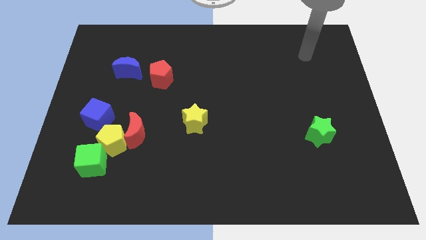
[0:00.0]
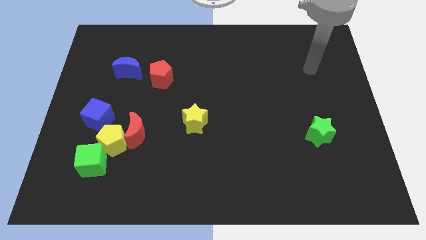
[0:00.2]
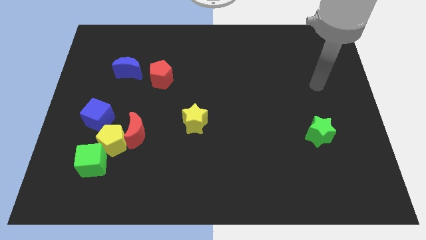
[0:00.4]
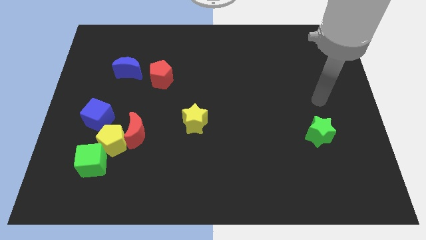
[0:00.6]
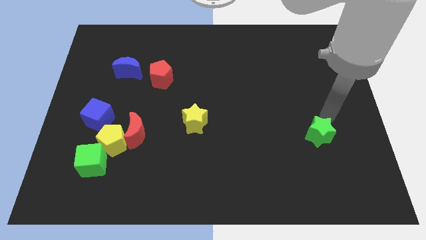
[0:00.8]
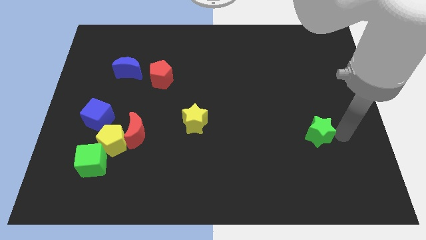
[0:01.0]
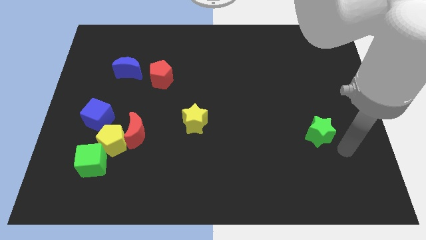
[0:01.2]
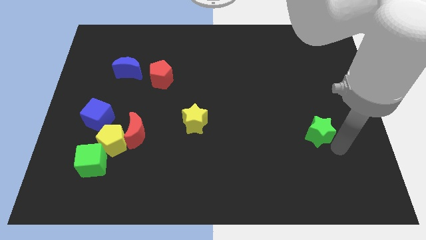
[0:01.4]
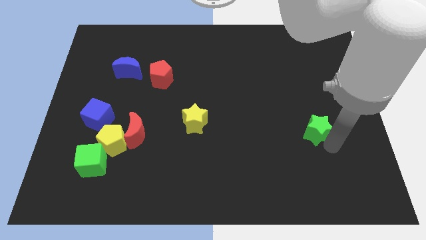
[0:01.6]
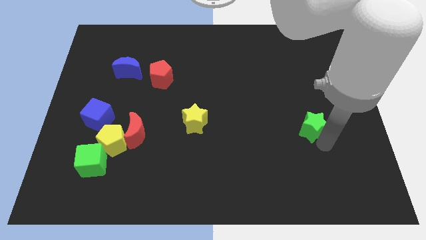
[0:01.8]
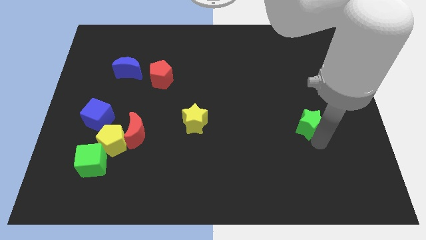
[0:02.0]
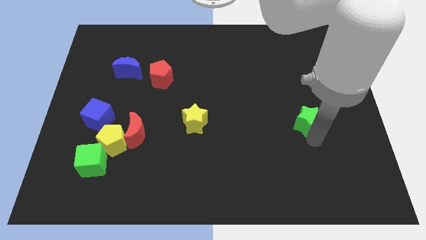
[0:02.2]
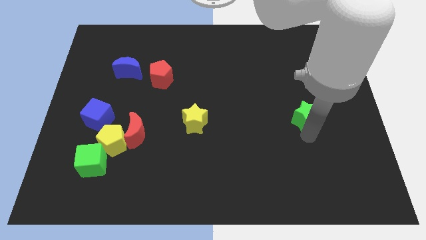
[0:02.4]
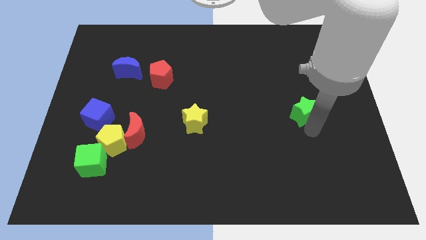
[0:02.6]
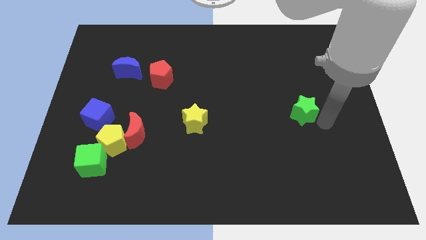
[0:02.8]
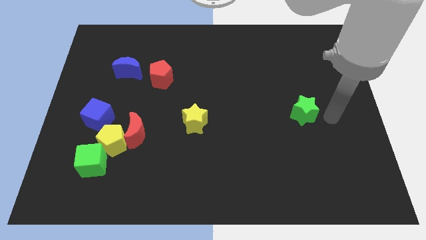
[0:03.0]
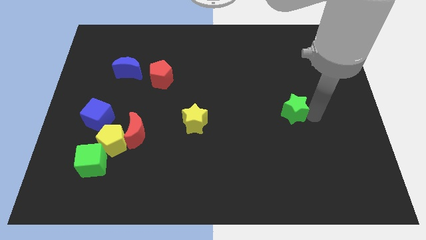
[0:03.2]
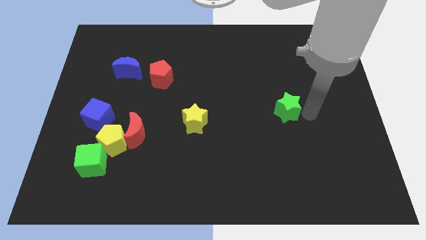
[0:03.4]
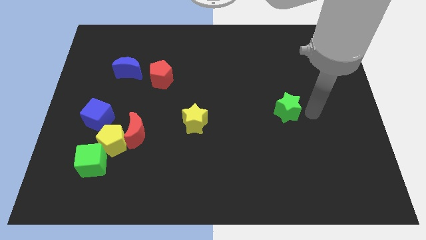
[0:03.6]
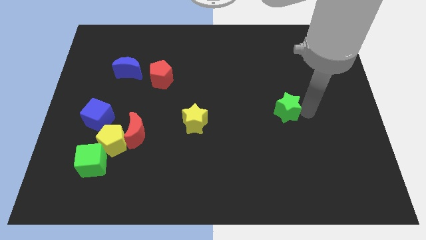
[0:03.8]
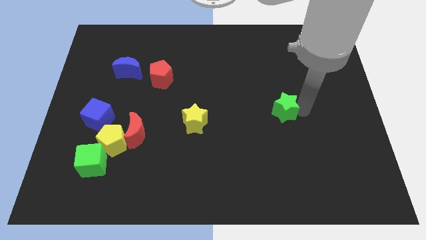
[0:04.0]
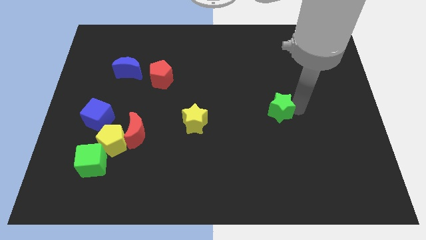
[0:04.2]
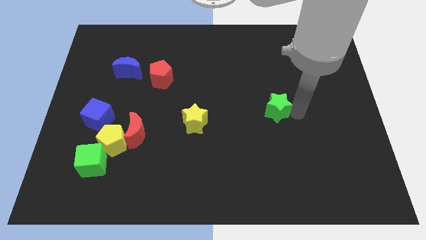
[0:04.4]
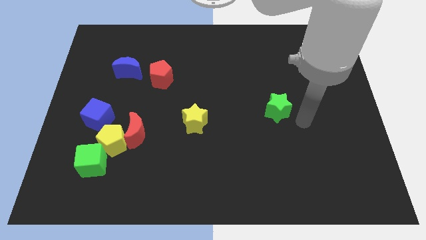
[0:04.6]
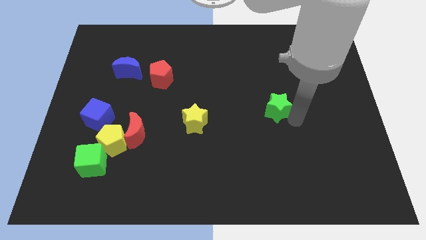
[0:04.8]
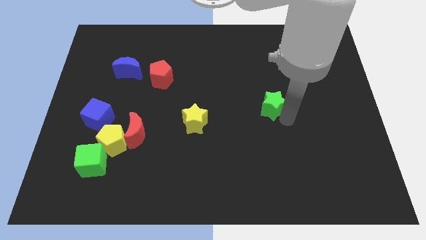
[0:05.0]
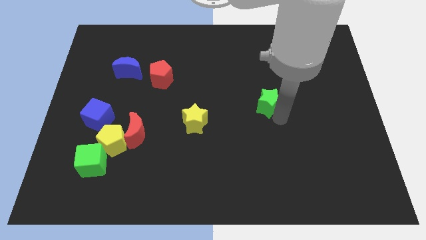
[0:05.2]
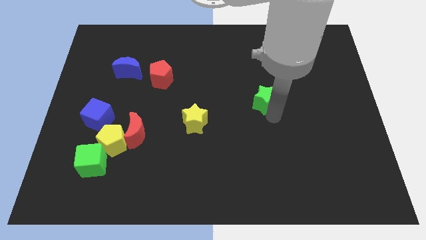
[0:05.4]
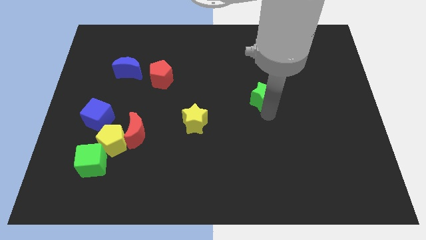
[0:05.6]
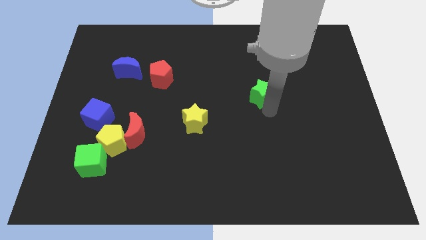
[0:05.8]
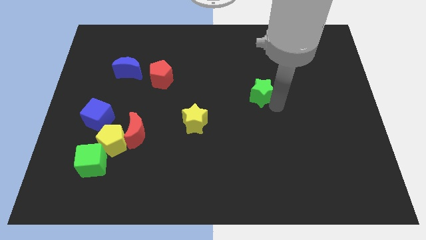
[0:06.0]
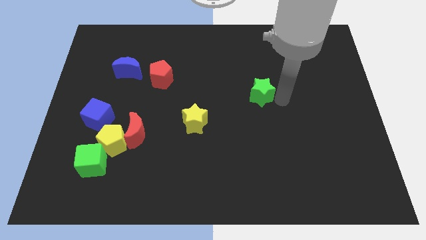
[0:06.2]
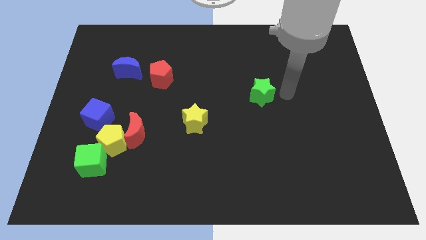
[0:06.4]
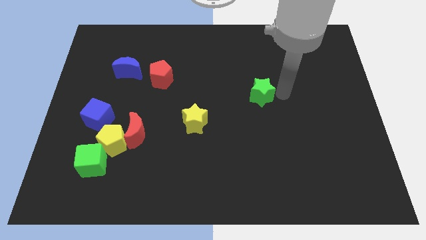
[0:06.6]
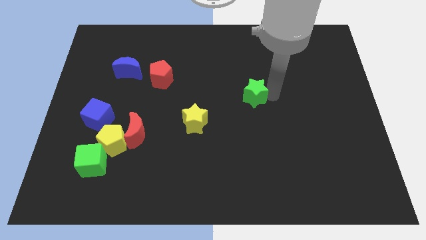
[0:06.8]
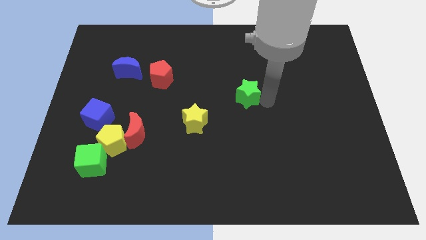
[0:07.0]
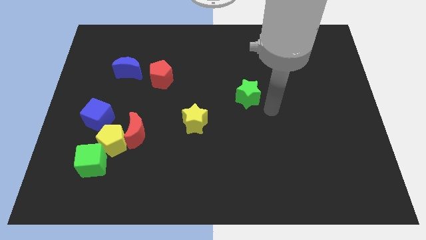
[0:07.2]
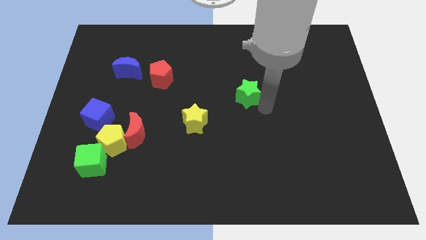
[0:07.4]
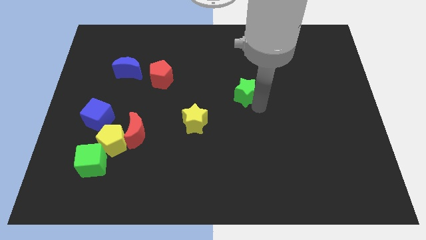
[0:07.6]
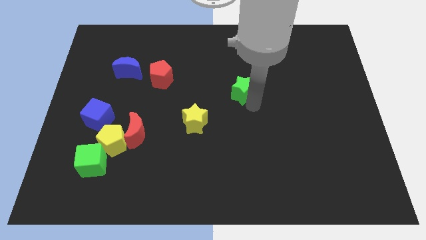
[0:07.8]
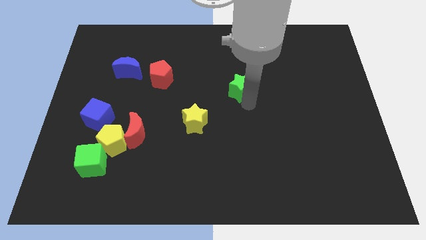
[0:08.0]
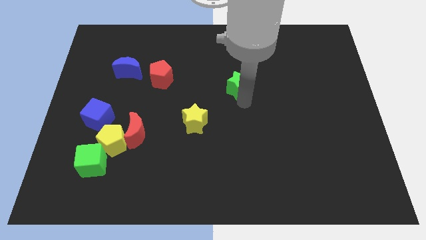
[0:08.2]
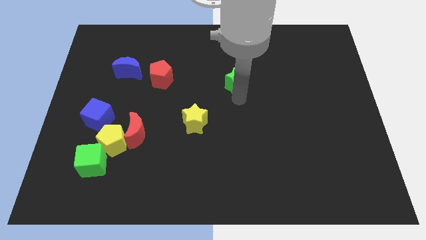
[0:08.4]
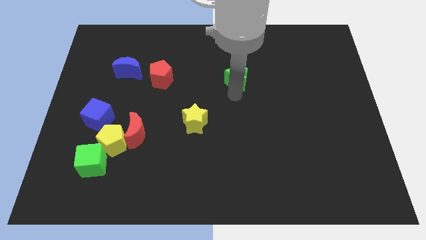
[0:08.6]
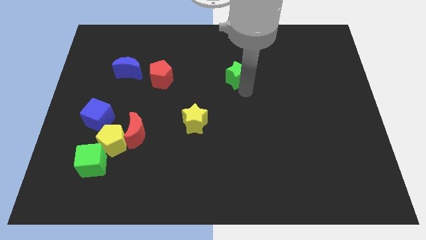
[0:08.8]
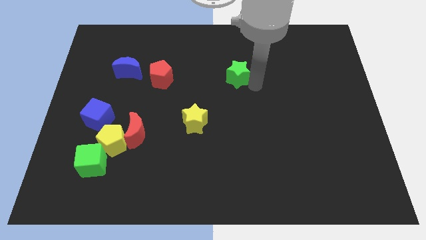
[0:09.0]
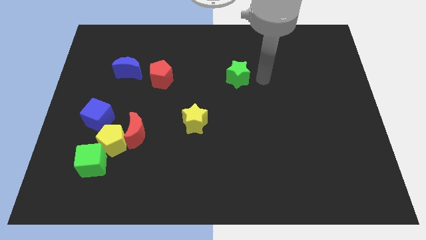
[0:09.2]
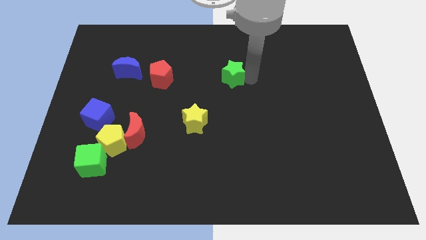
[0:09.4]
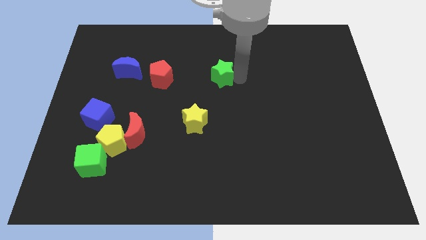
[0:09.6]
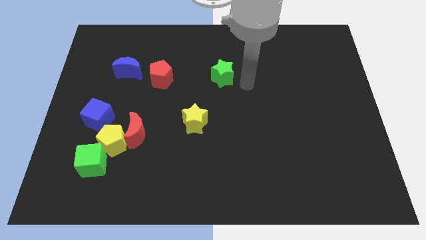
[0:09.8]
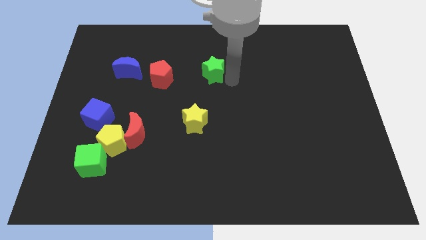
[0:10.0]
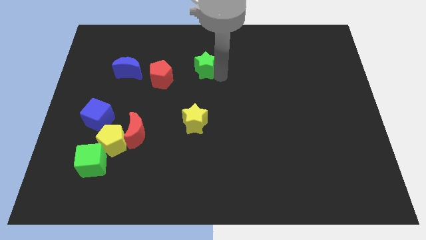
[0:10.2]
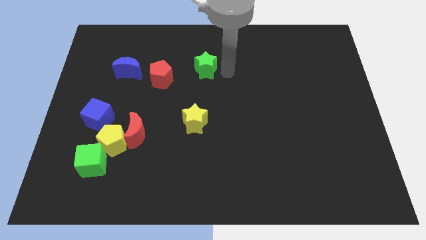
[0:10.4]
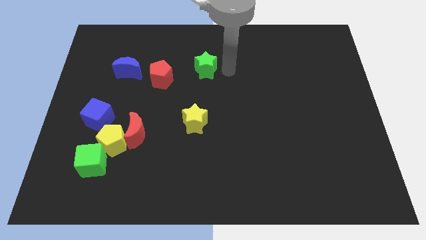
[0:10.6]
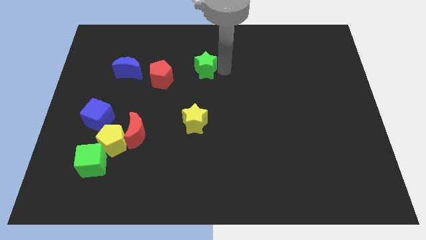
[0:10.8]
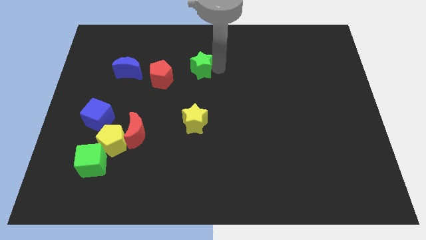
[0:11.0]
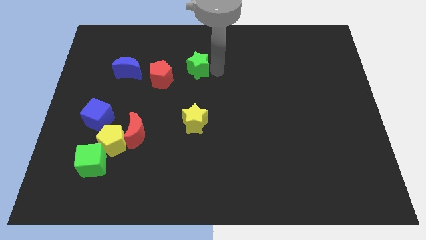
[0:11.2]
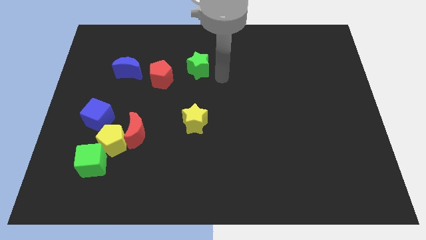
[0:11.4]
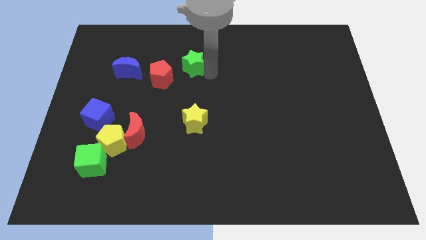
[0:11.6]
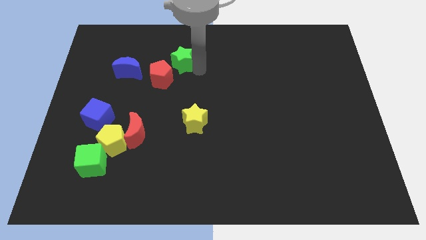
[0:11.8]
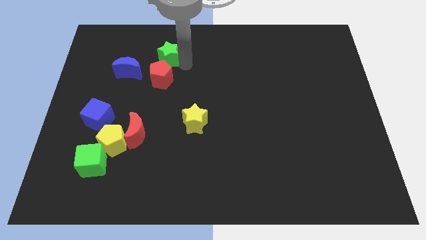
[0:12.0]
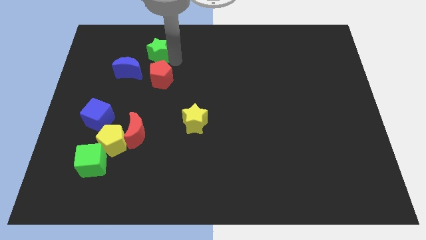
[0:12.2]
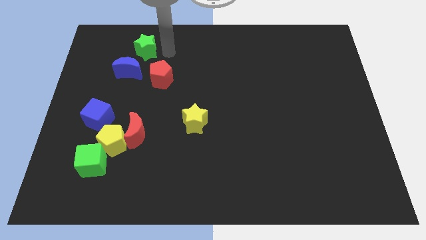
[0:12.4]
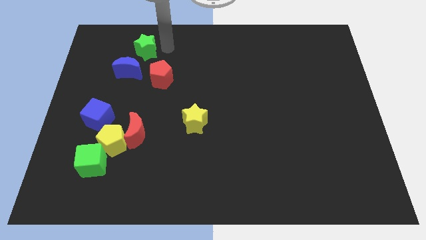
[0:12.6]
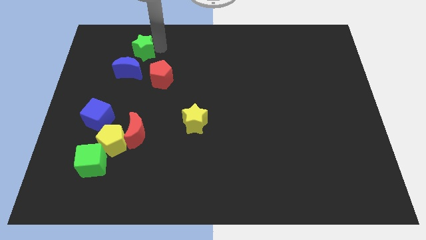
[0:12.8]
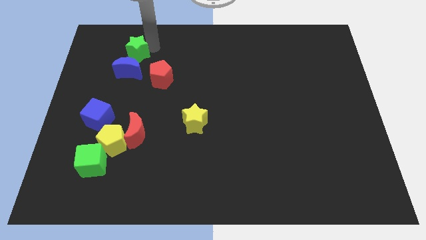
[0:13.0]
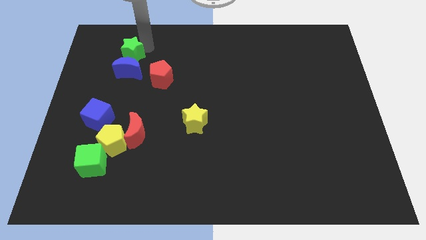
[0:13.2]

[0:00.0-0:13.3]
slide the green star to the top left of the blue moon
